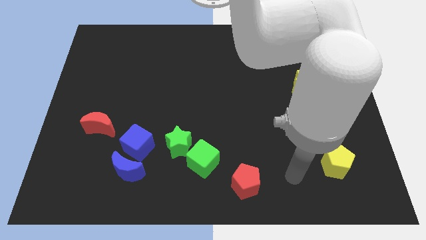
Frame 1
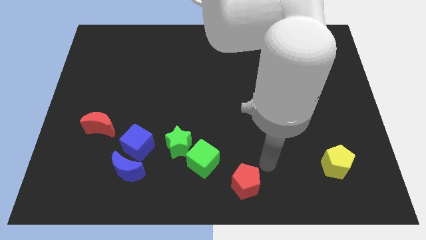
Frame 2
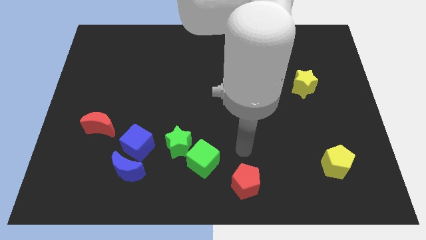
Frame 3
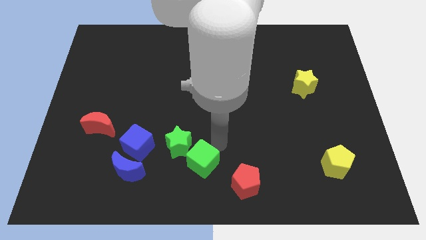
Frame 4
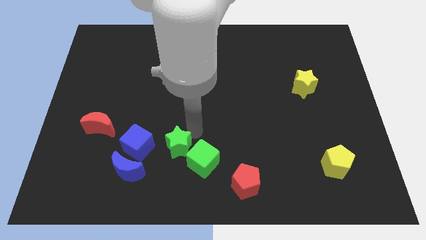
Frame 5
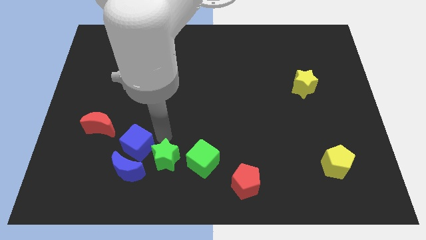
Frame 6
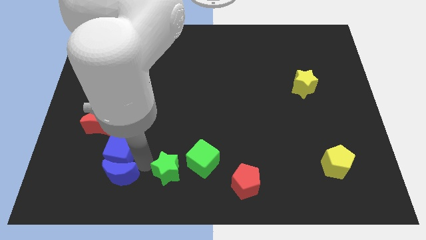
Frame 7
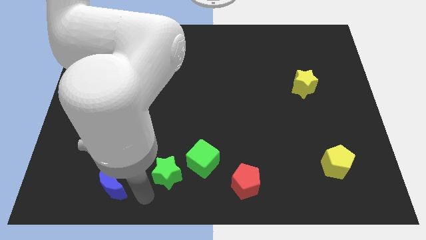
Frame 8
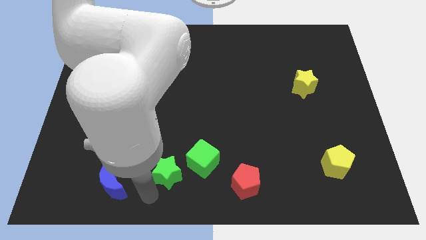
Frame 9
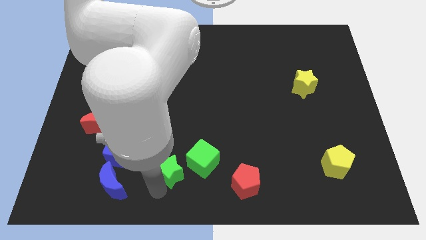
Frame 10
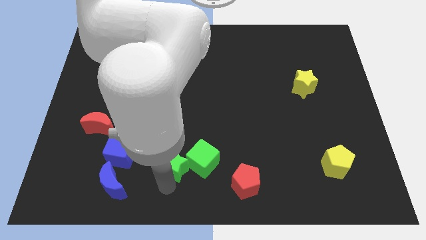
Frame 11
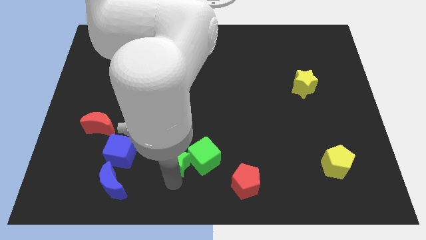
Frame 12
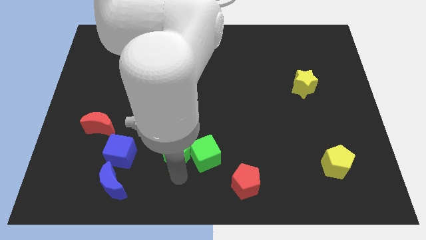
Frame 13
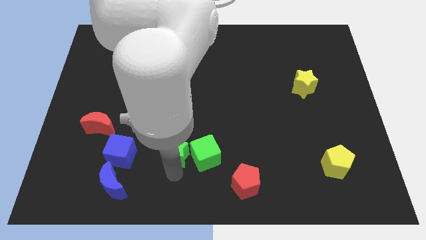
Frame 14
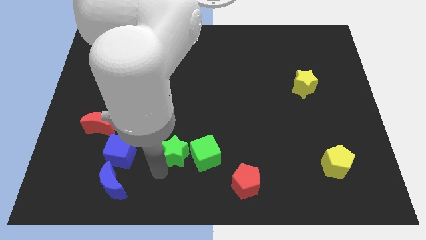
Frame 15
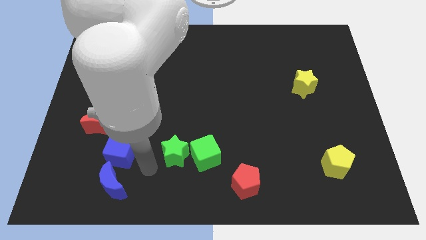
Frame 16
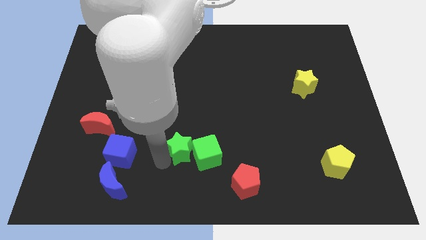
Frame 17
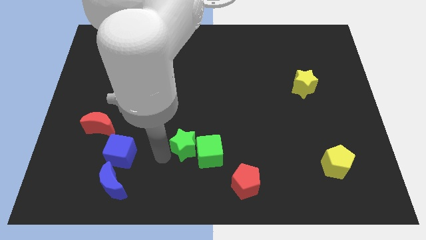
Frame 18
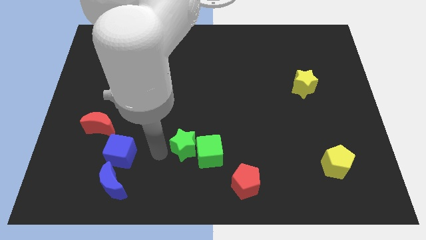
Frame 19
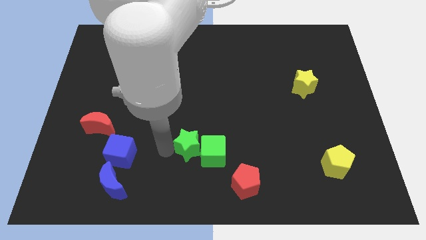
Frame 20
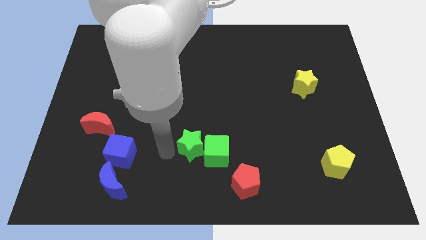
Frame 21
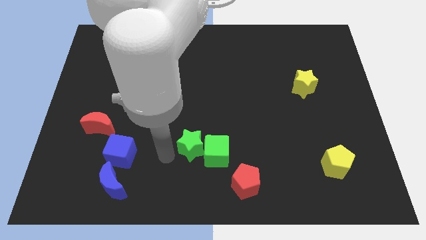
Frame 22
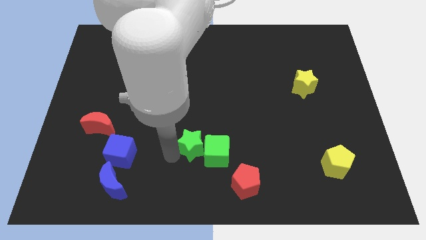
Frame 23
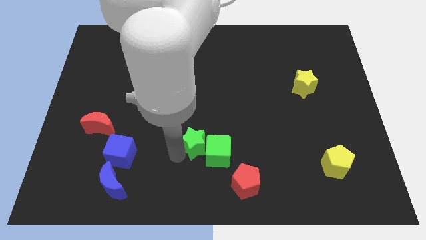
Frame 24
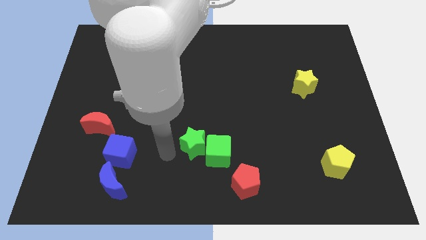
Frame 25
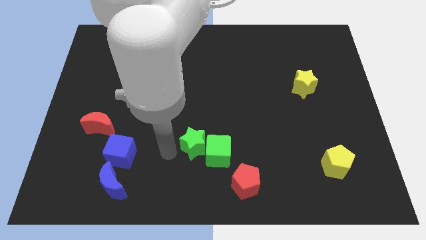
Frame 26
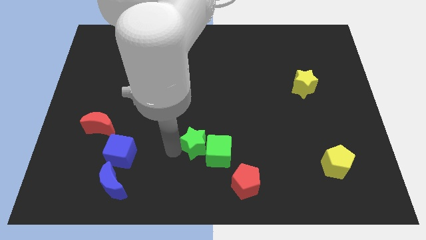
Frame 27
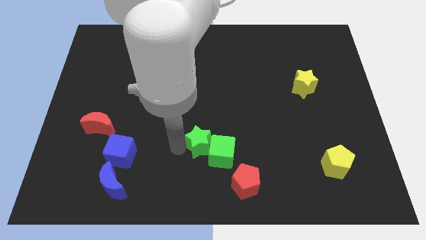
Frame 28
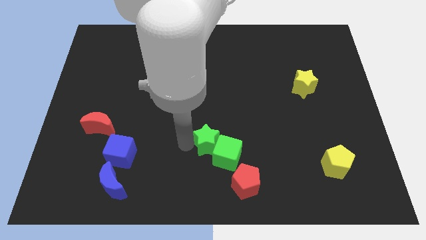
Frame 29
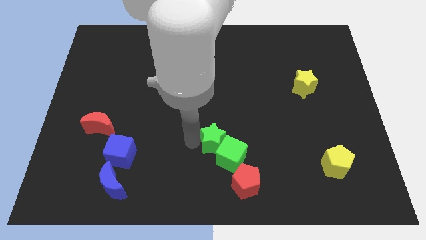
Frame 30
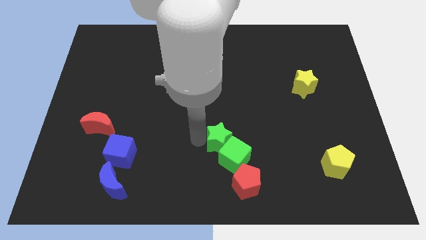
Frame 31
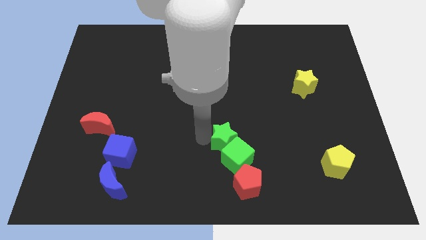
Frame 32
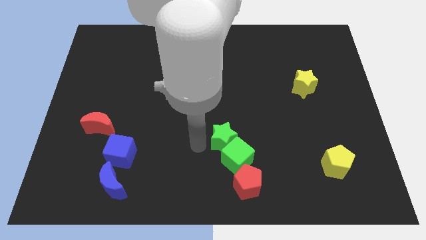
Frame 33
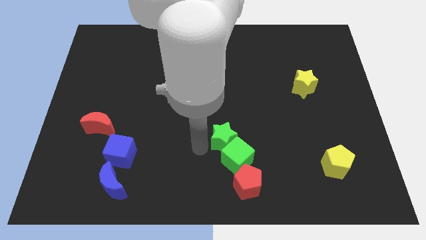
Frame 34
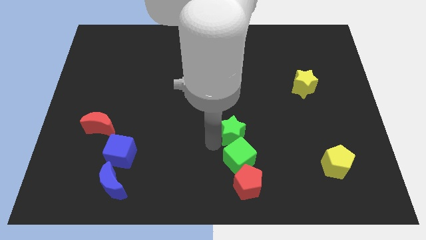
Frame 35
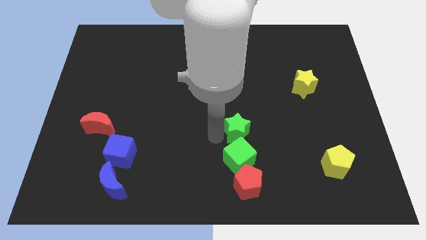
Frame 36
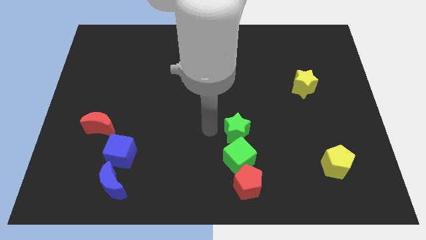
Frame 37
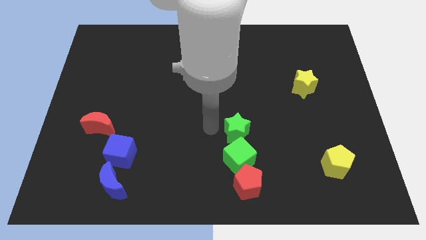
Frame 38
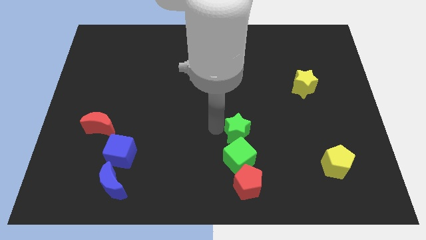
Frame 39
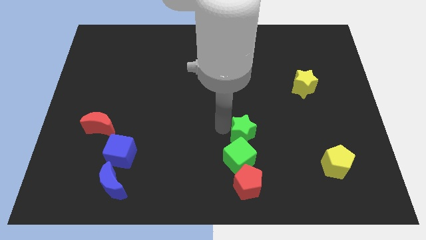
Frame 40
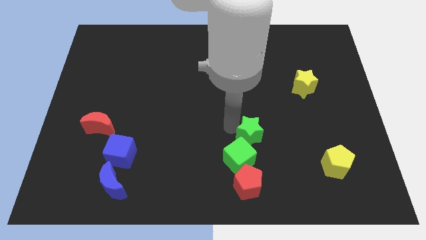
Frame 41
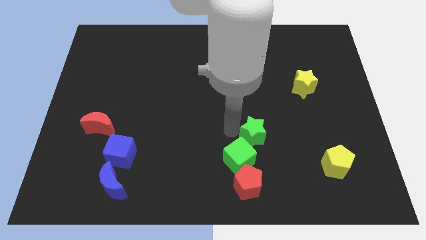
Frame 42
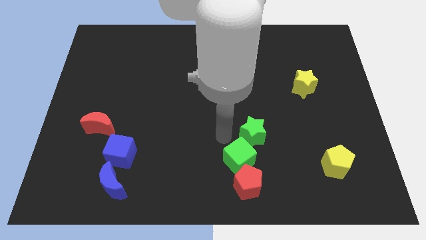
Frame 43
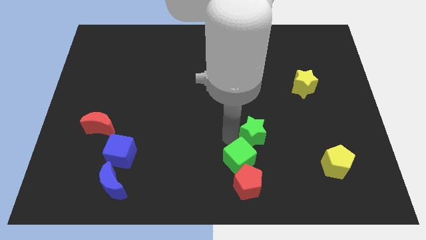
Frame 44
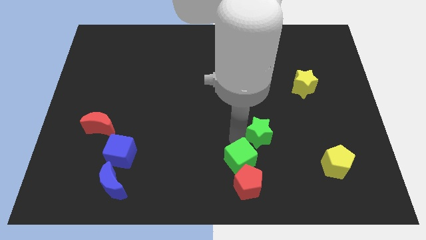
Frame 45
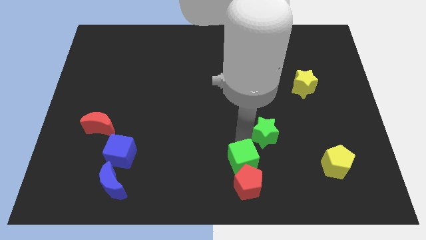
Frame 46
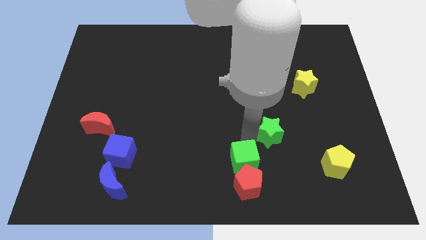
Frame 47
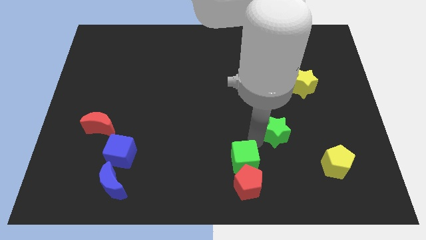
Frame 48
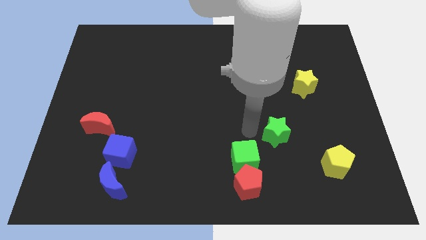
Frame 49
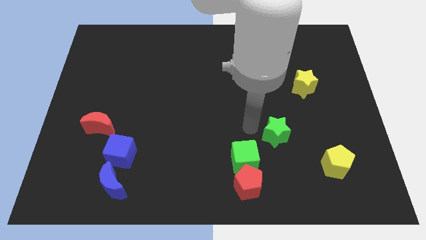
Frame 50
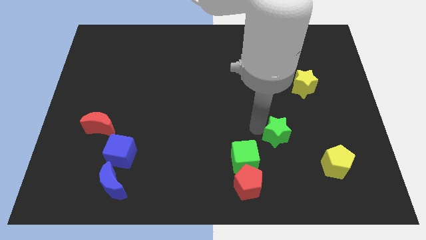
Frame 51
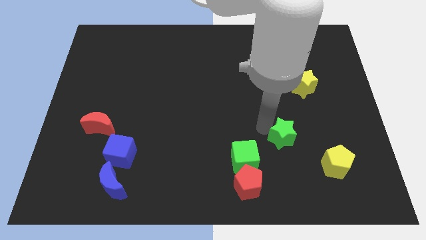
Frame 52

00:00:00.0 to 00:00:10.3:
move the green star to the top left of the yellow pentagon

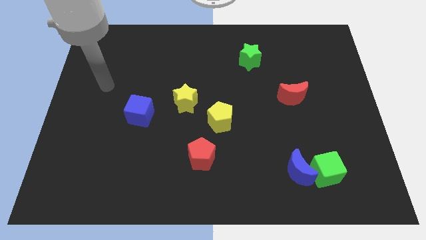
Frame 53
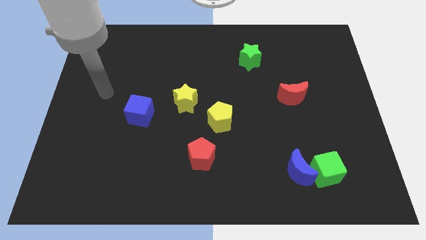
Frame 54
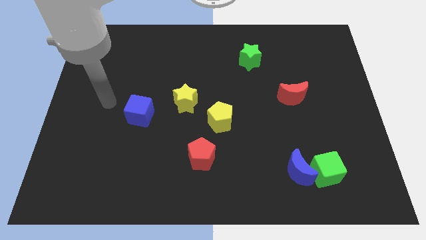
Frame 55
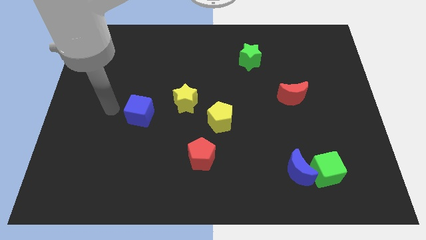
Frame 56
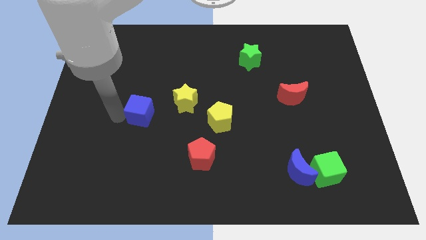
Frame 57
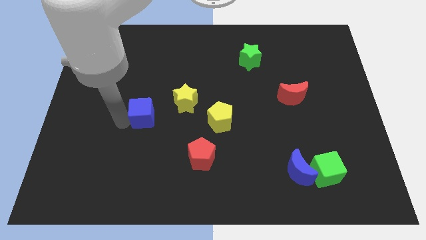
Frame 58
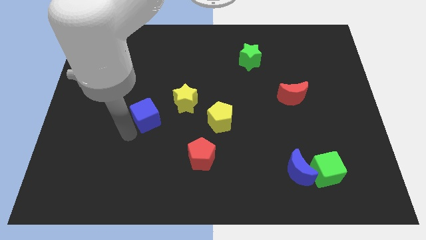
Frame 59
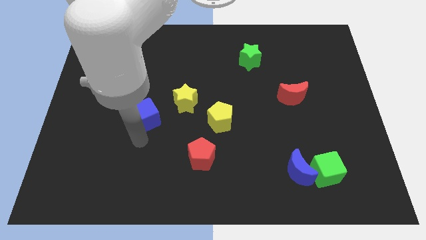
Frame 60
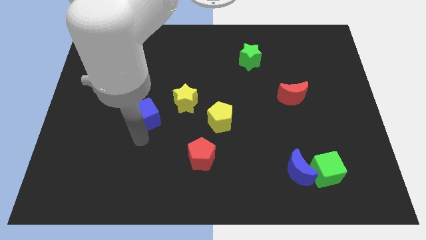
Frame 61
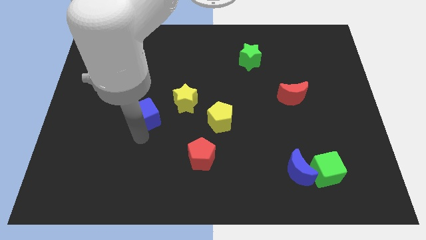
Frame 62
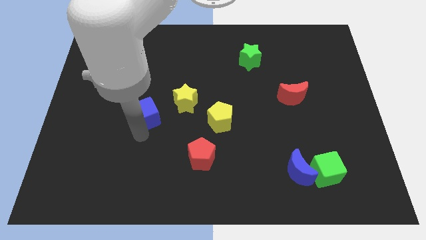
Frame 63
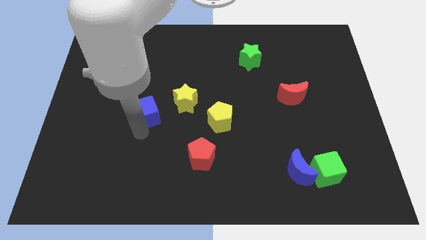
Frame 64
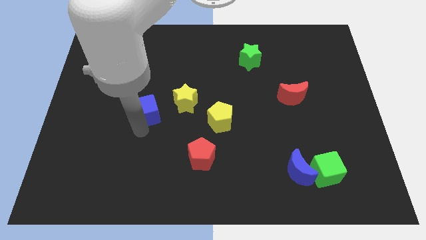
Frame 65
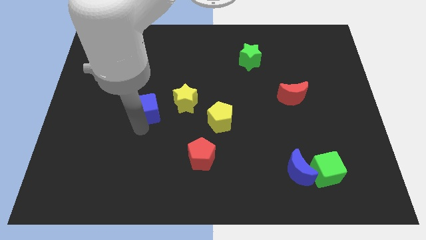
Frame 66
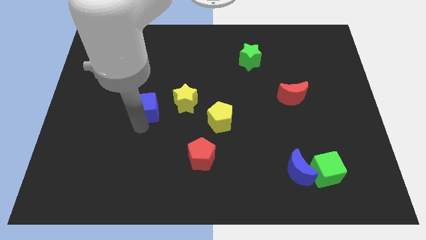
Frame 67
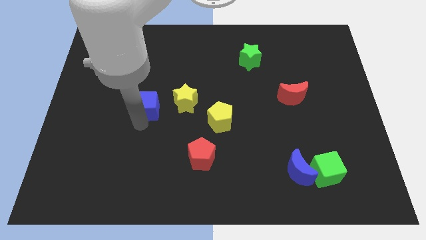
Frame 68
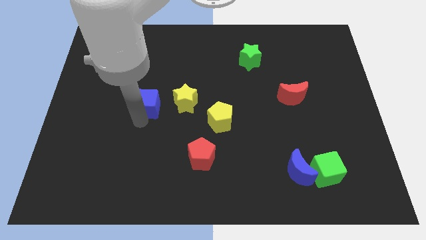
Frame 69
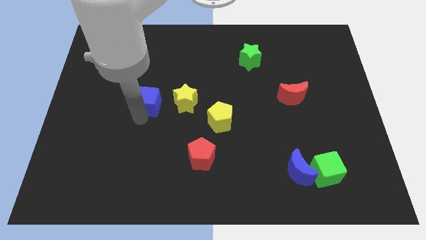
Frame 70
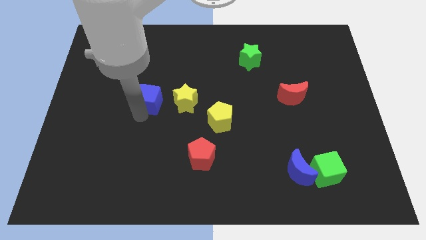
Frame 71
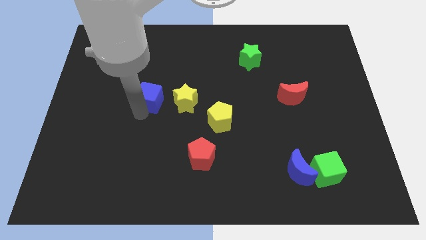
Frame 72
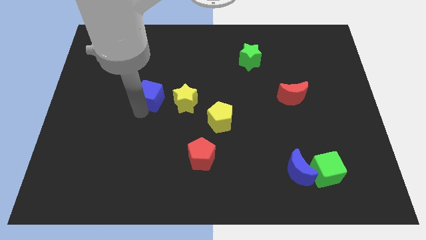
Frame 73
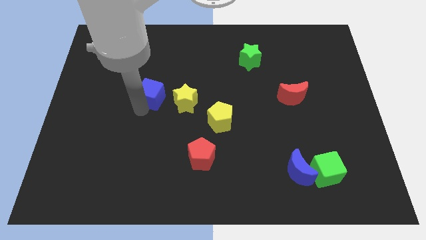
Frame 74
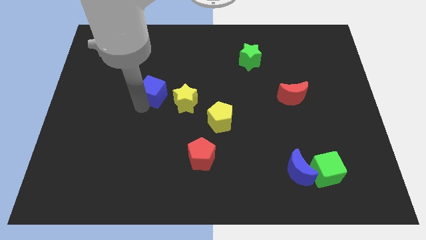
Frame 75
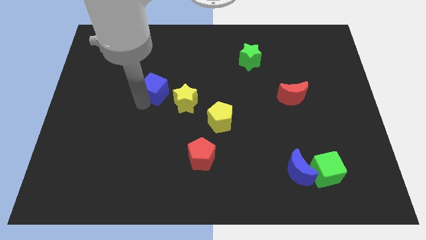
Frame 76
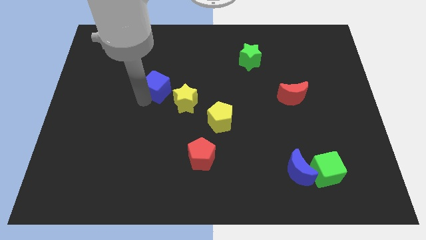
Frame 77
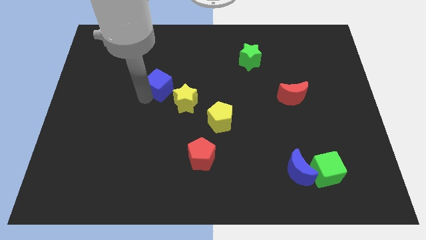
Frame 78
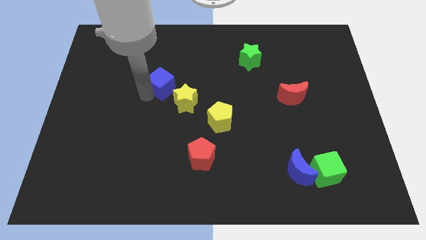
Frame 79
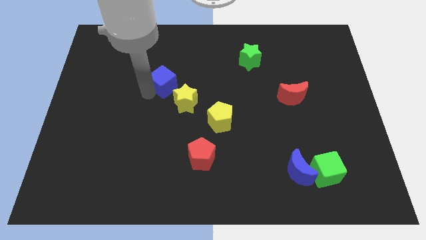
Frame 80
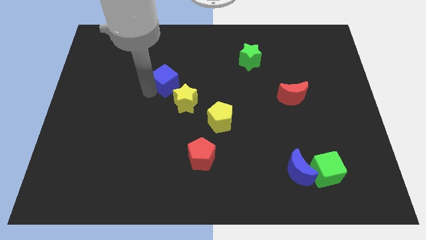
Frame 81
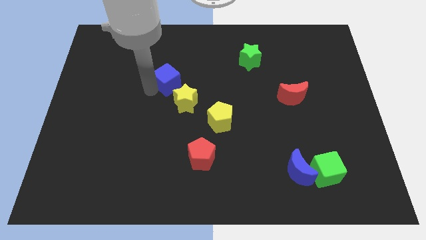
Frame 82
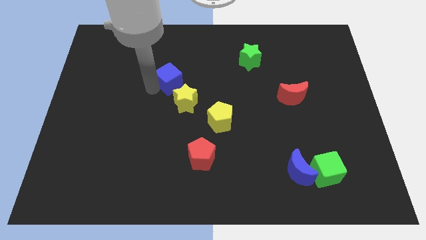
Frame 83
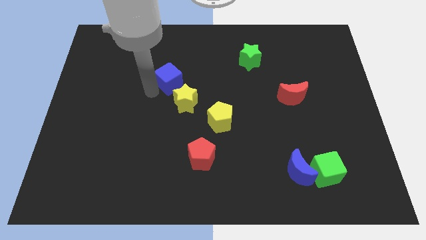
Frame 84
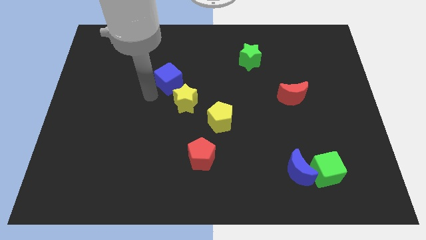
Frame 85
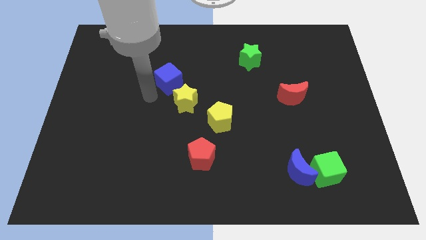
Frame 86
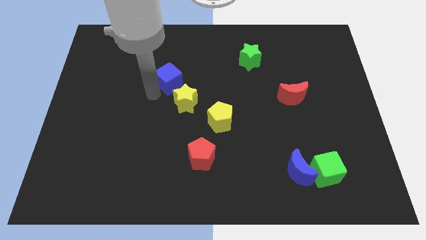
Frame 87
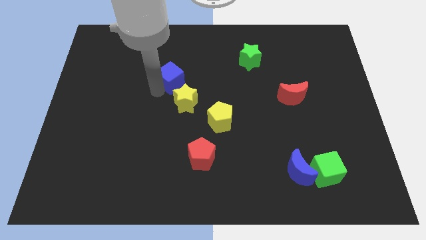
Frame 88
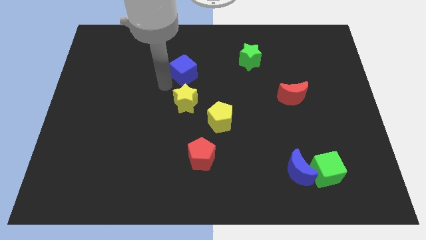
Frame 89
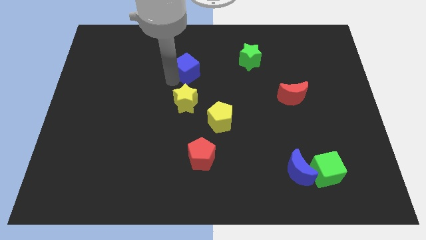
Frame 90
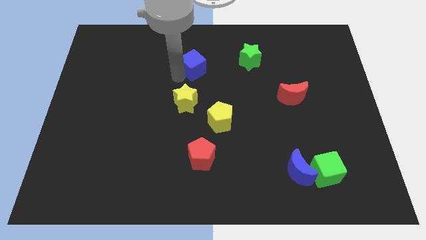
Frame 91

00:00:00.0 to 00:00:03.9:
slide the blue cube to the left of the green star
